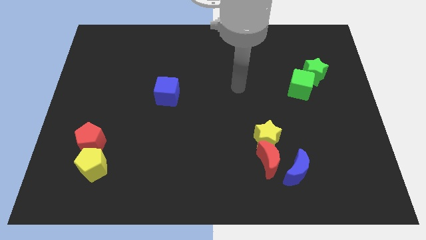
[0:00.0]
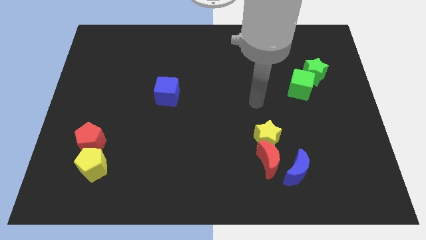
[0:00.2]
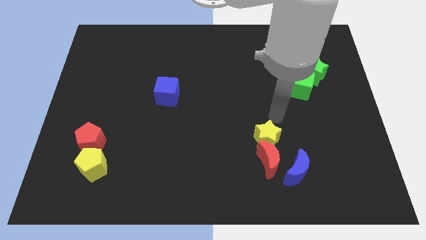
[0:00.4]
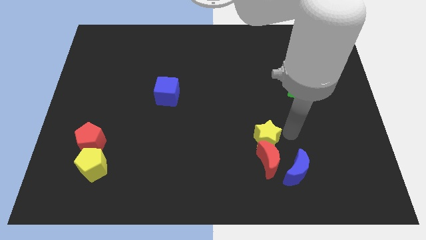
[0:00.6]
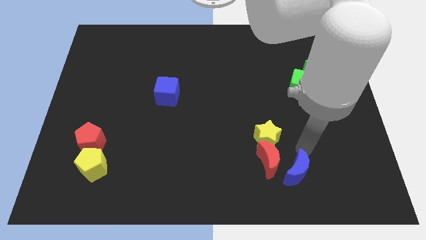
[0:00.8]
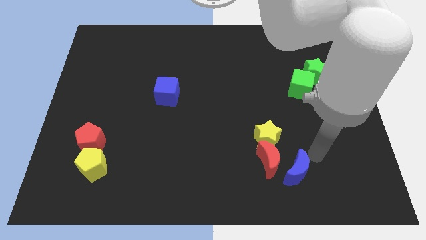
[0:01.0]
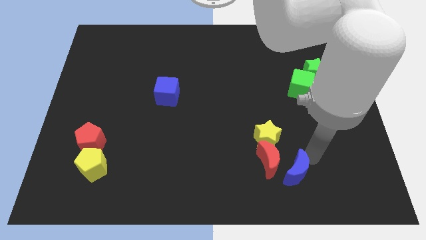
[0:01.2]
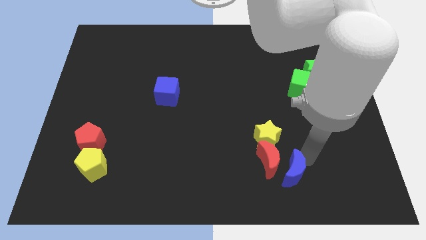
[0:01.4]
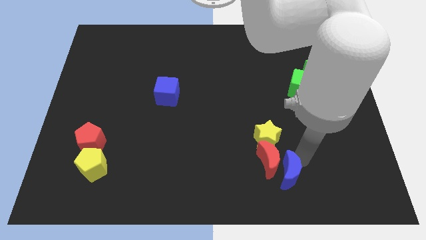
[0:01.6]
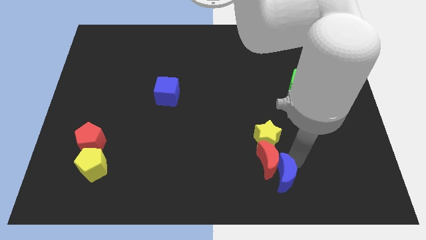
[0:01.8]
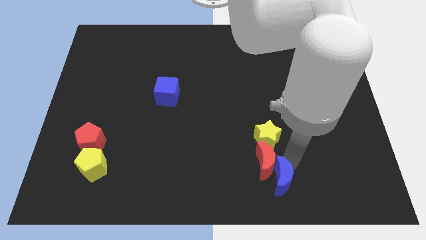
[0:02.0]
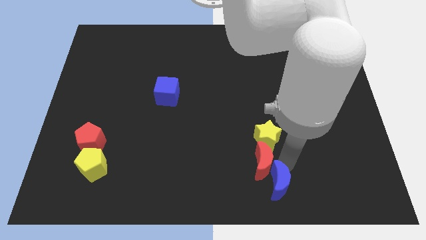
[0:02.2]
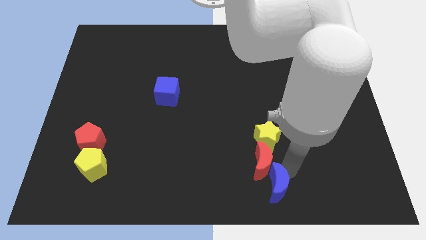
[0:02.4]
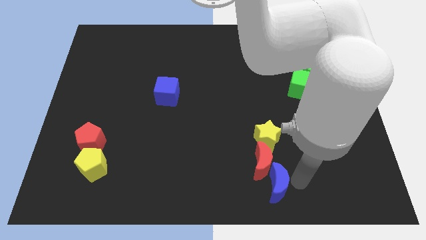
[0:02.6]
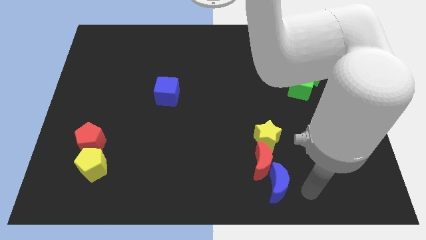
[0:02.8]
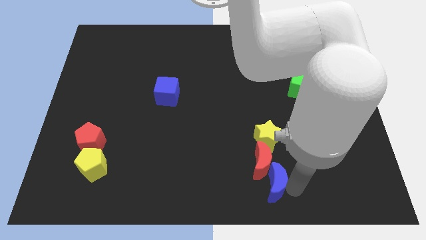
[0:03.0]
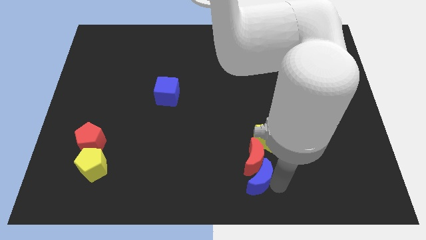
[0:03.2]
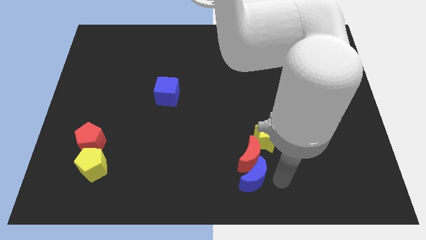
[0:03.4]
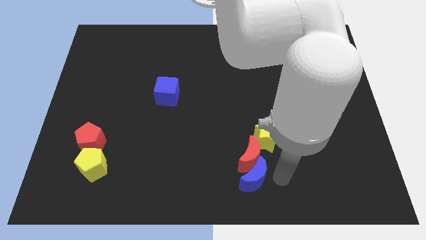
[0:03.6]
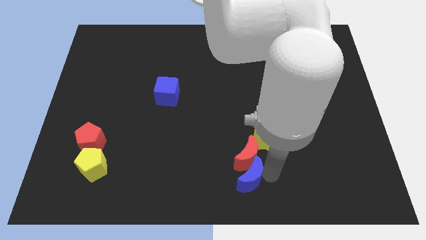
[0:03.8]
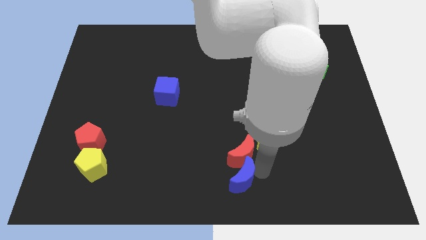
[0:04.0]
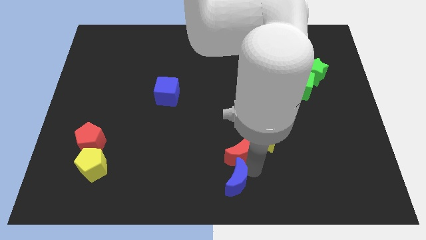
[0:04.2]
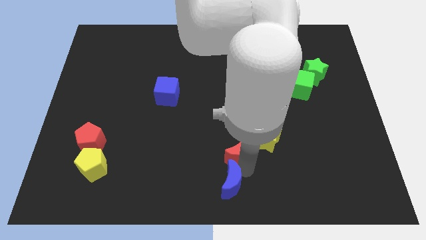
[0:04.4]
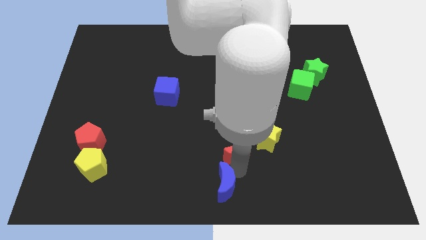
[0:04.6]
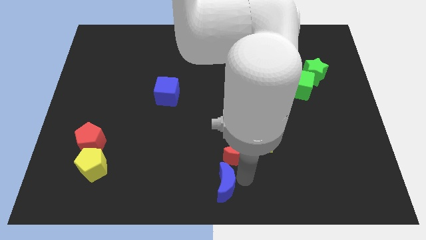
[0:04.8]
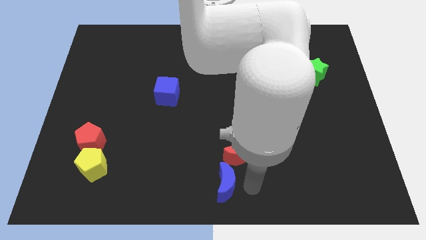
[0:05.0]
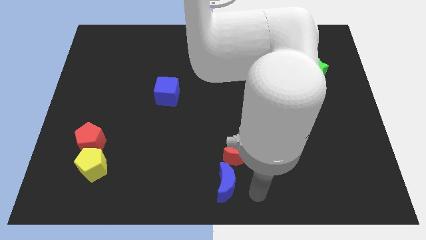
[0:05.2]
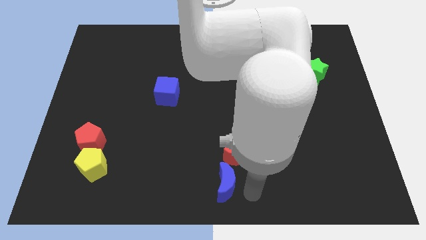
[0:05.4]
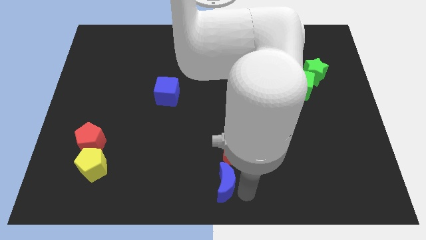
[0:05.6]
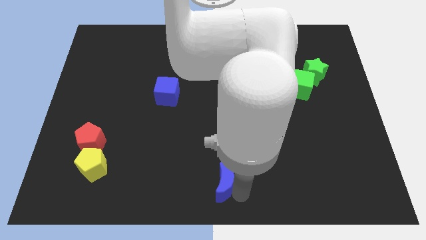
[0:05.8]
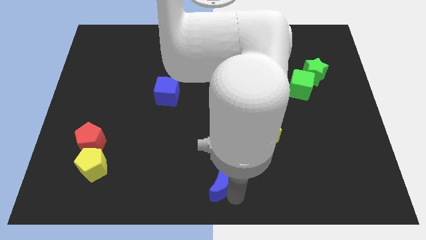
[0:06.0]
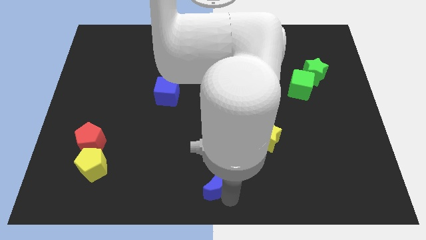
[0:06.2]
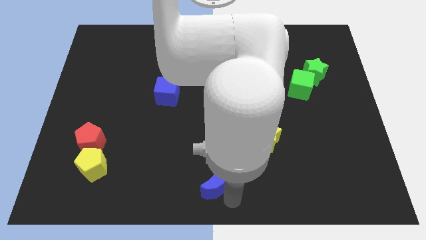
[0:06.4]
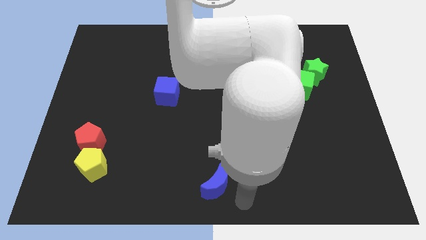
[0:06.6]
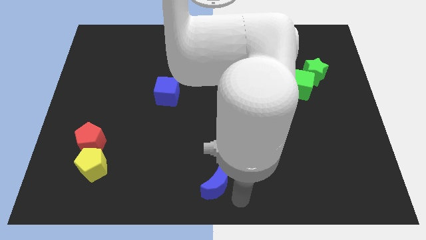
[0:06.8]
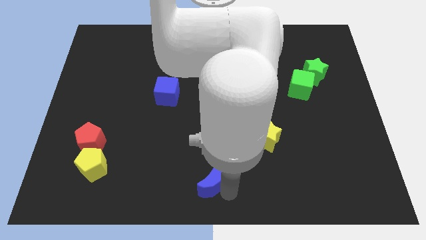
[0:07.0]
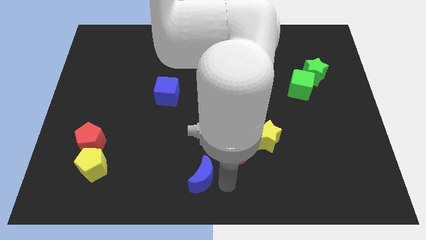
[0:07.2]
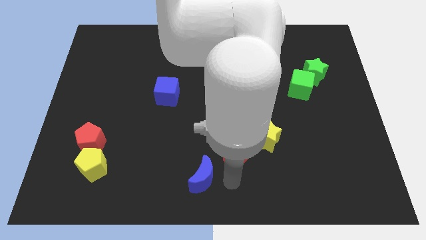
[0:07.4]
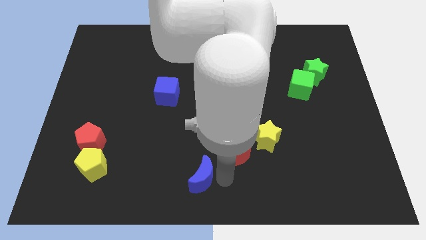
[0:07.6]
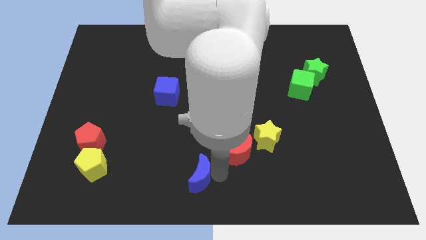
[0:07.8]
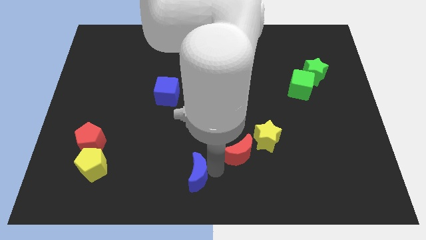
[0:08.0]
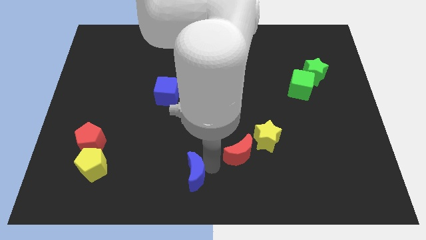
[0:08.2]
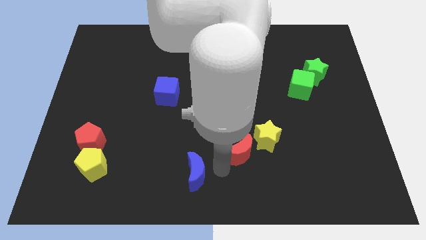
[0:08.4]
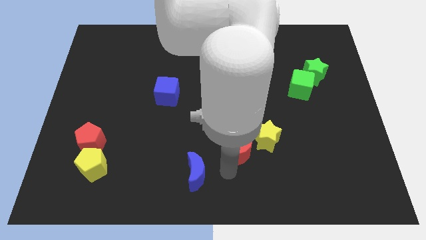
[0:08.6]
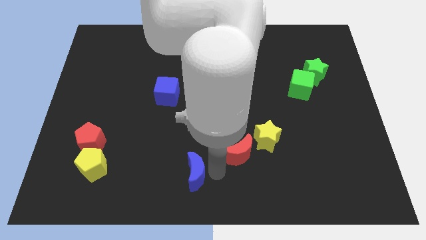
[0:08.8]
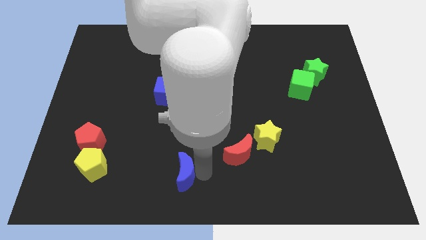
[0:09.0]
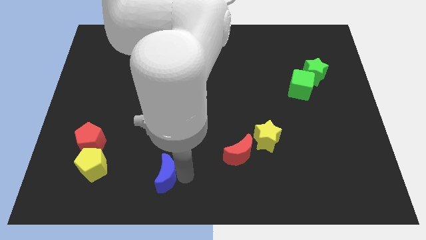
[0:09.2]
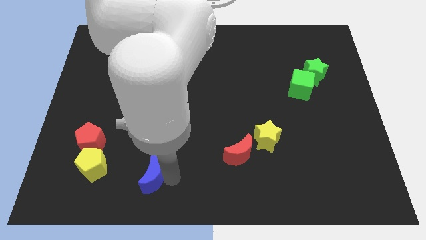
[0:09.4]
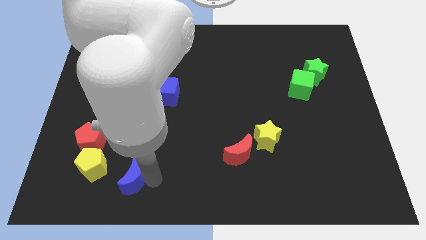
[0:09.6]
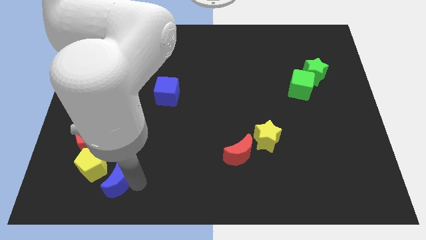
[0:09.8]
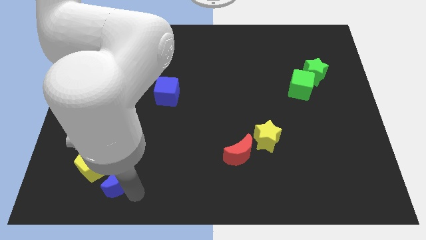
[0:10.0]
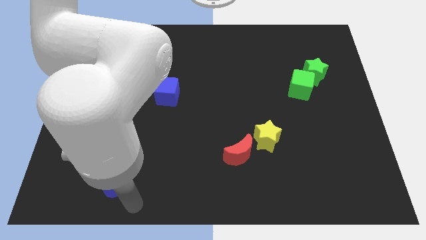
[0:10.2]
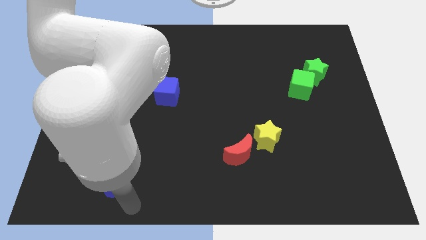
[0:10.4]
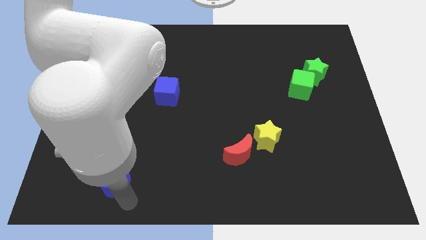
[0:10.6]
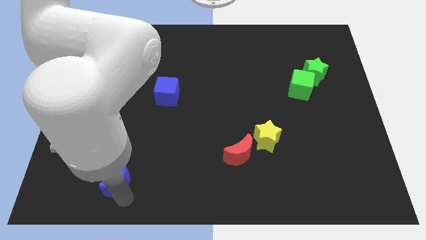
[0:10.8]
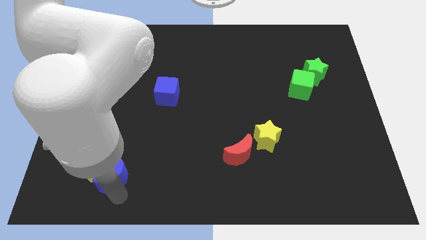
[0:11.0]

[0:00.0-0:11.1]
put the blue moon next to the yellow pentagon

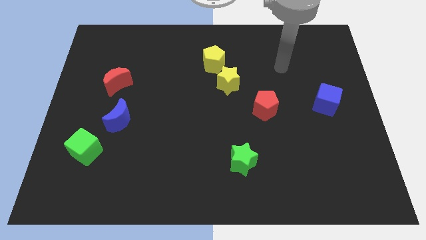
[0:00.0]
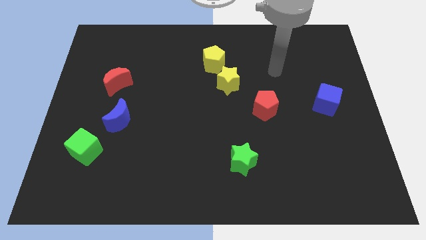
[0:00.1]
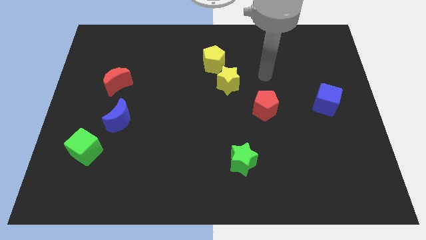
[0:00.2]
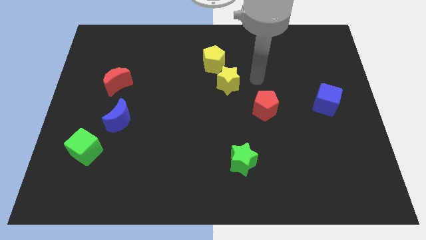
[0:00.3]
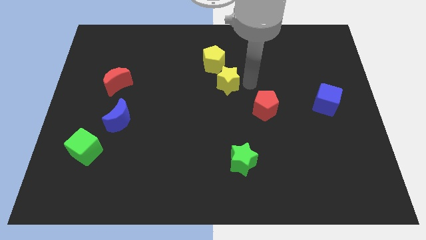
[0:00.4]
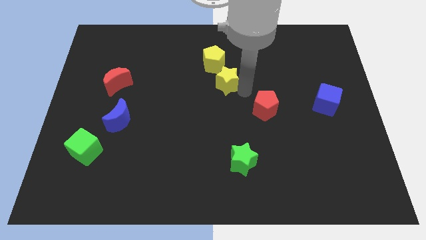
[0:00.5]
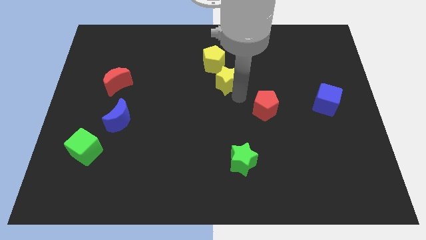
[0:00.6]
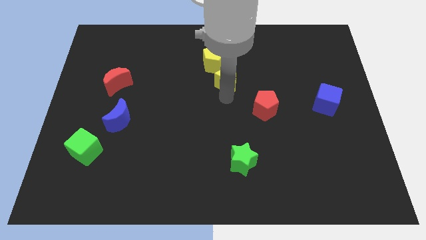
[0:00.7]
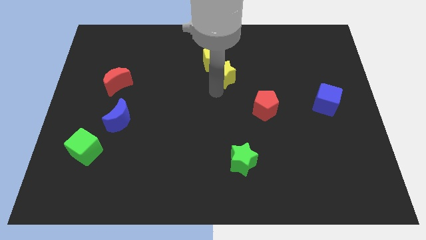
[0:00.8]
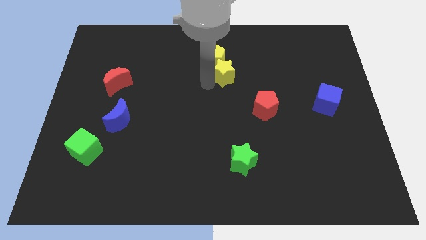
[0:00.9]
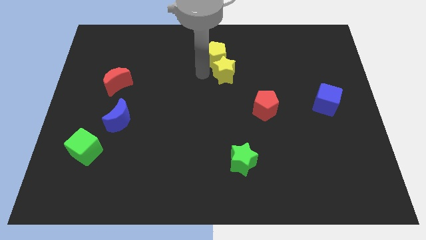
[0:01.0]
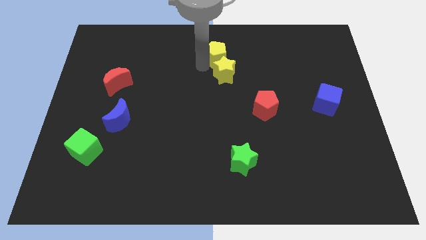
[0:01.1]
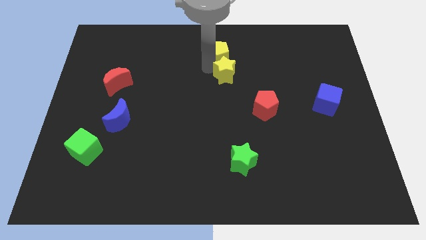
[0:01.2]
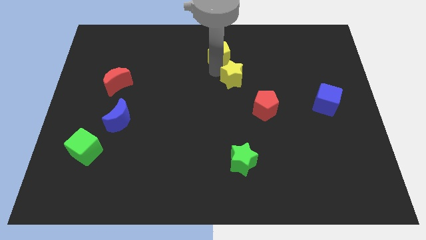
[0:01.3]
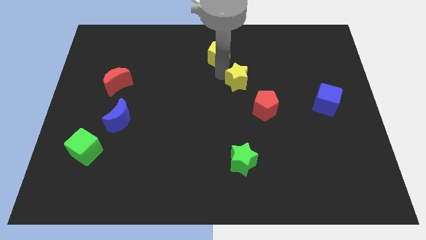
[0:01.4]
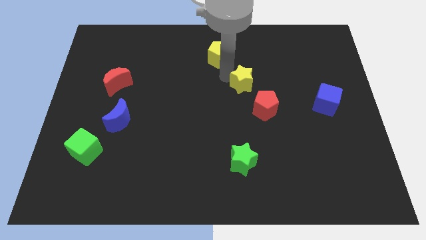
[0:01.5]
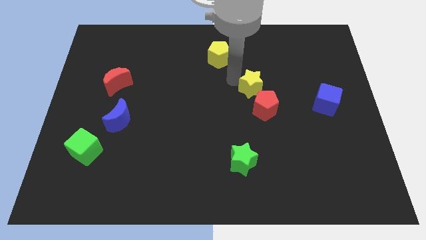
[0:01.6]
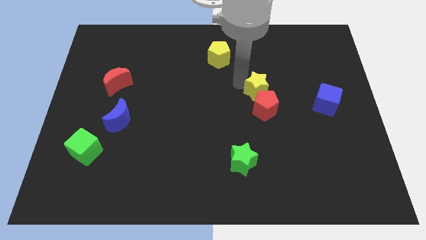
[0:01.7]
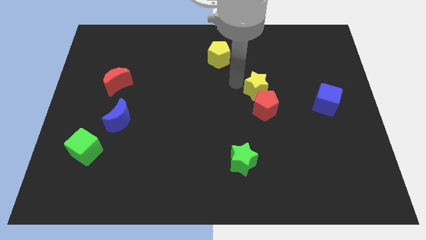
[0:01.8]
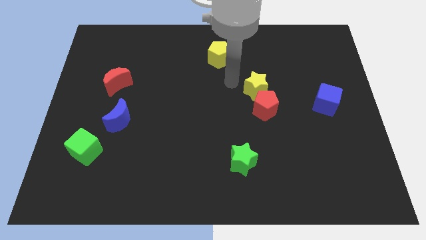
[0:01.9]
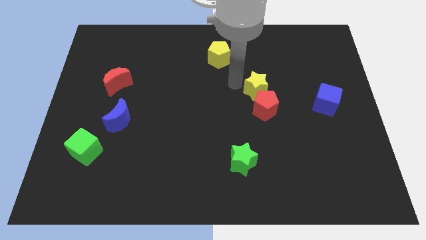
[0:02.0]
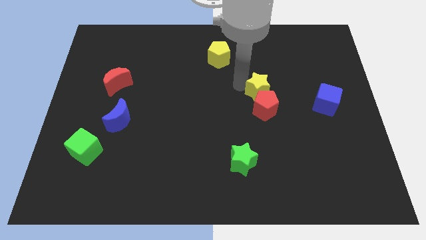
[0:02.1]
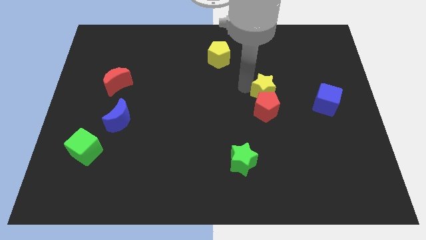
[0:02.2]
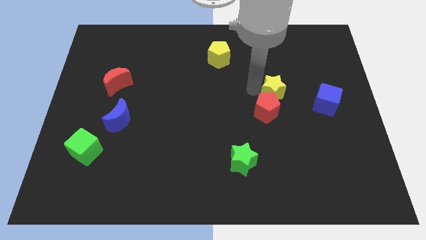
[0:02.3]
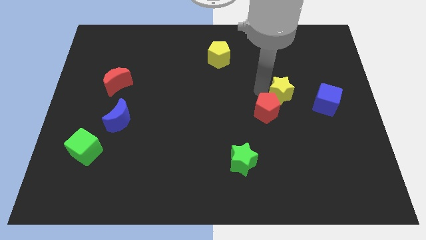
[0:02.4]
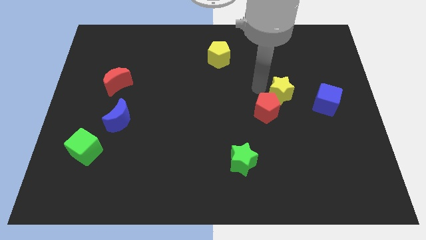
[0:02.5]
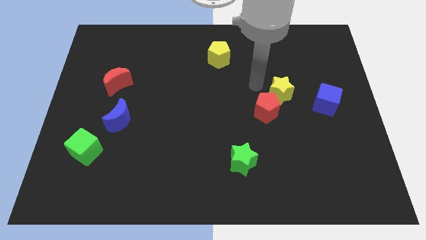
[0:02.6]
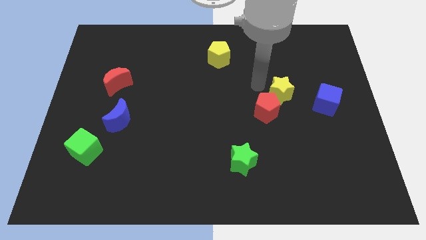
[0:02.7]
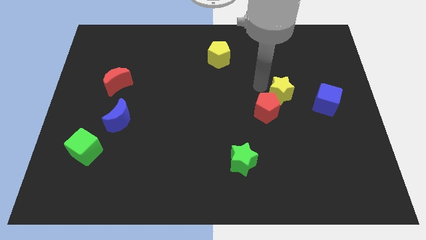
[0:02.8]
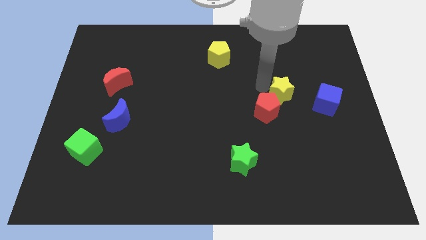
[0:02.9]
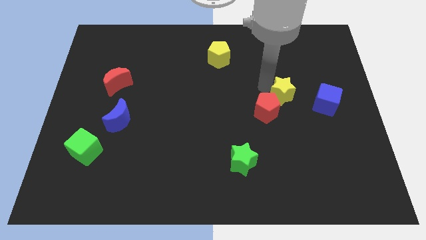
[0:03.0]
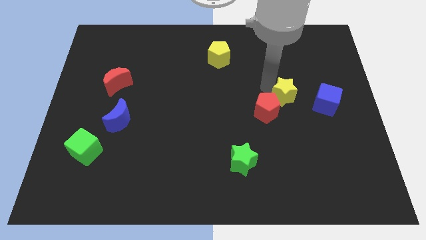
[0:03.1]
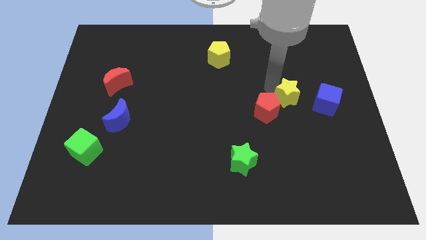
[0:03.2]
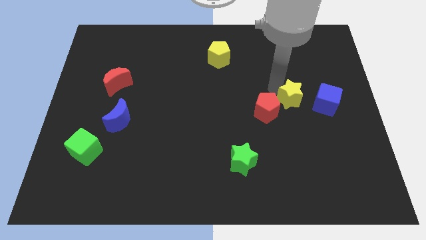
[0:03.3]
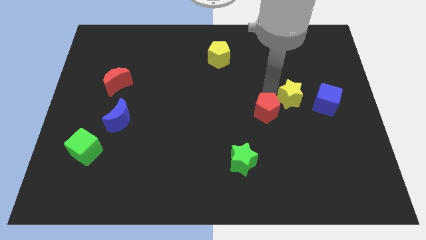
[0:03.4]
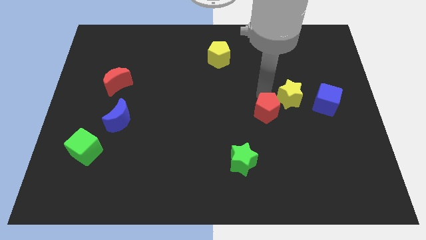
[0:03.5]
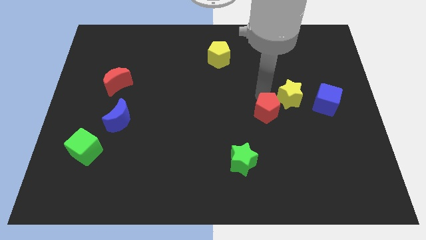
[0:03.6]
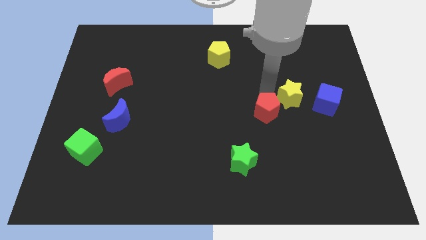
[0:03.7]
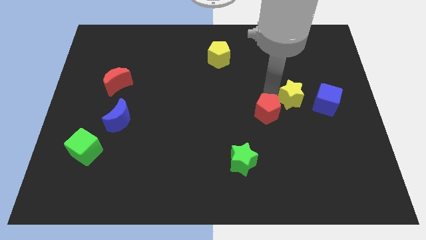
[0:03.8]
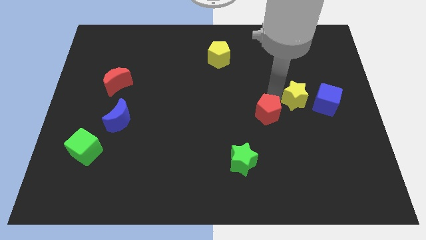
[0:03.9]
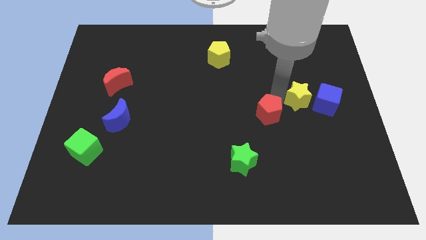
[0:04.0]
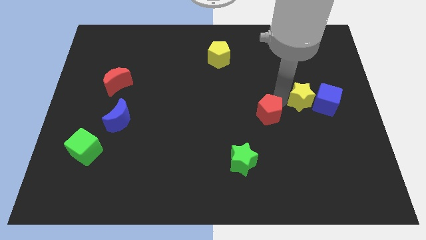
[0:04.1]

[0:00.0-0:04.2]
slide the yellow star close to the blue cube
